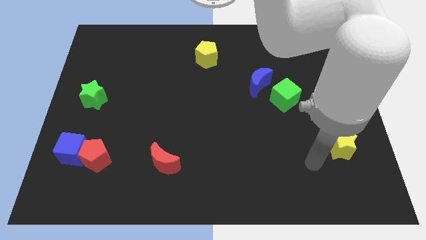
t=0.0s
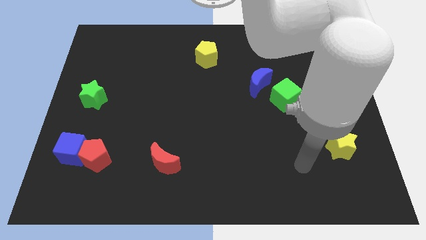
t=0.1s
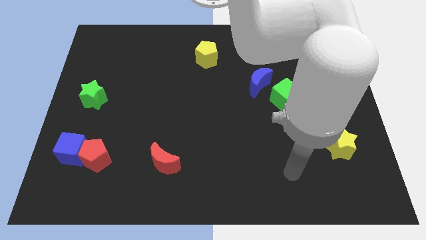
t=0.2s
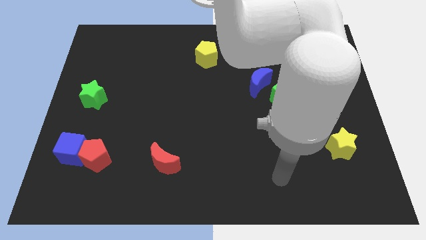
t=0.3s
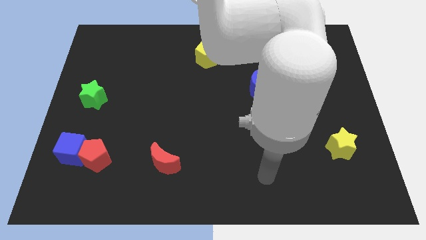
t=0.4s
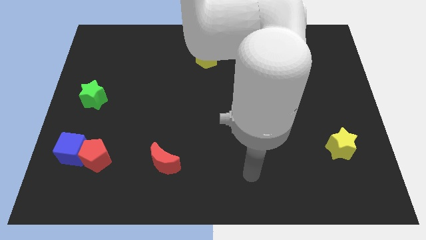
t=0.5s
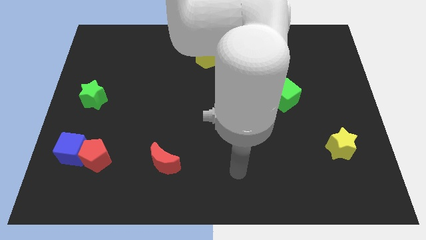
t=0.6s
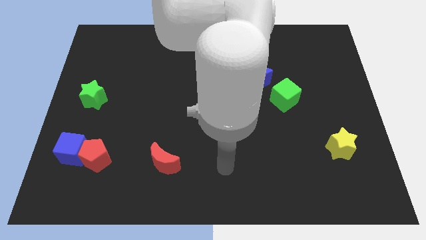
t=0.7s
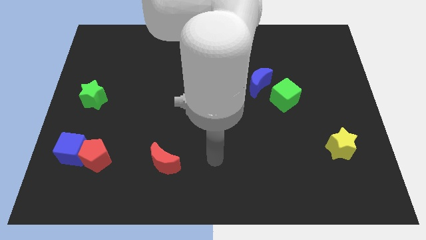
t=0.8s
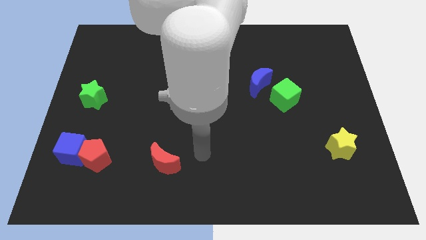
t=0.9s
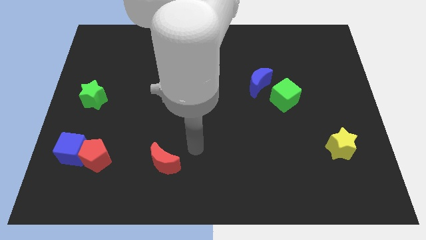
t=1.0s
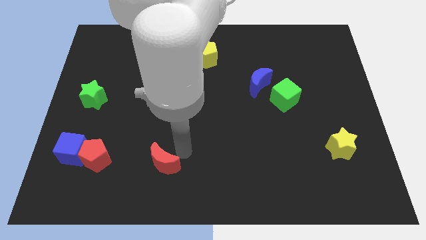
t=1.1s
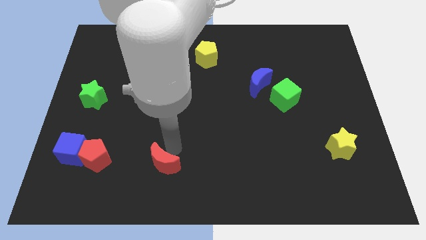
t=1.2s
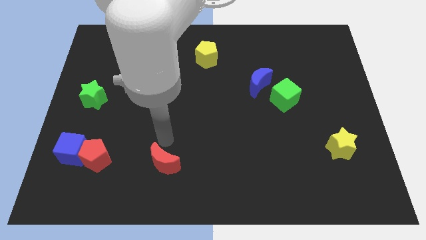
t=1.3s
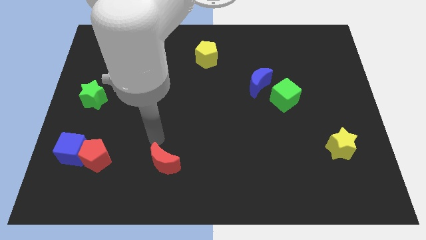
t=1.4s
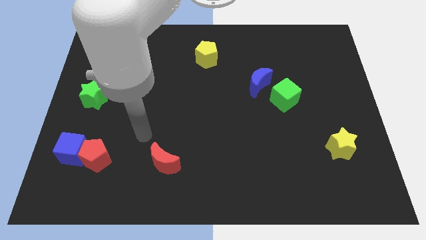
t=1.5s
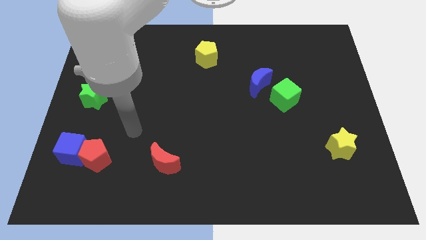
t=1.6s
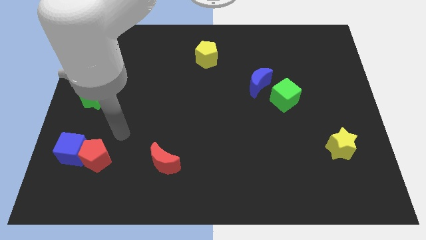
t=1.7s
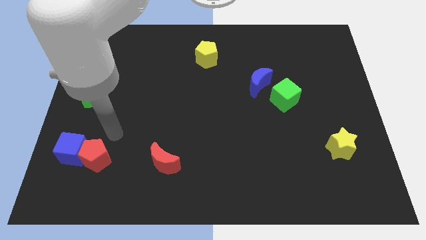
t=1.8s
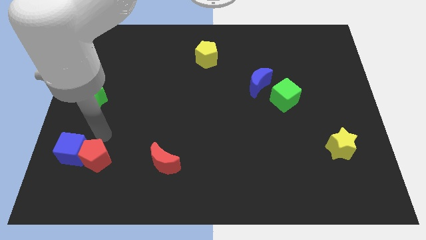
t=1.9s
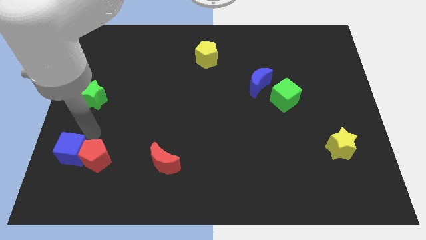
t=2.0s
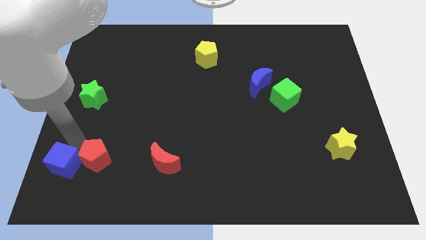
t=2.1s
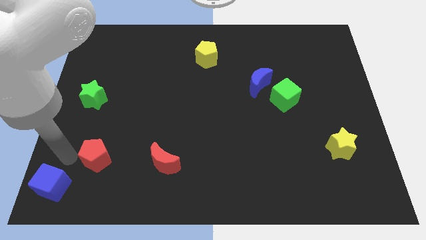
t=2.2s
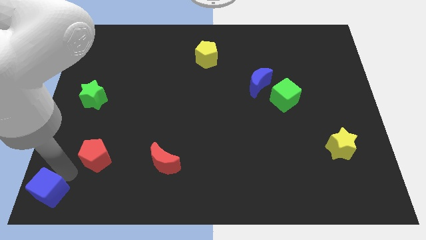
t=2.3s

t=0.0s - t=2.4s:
pull the red pentagon apart from the blue cube

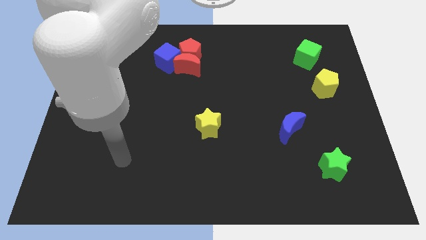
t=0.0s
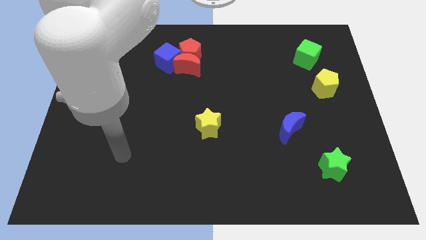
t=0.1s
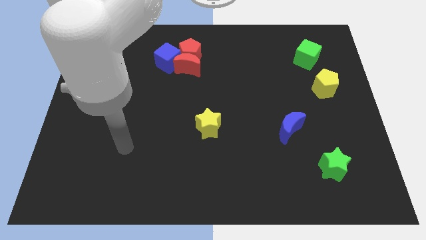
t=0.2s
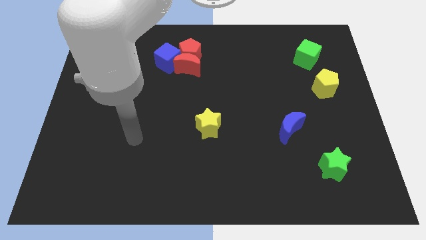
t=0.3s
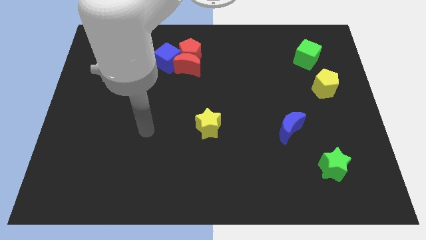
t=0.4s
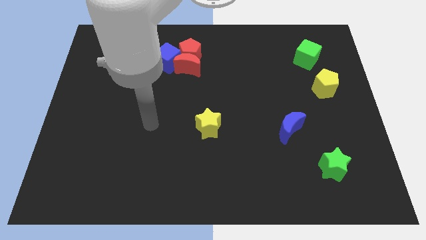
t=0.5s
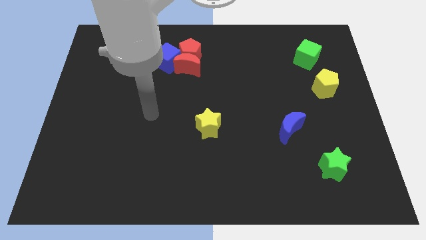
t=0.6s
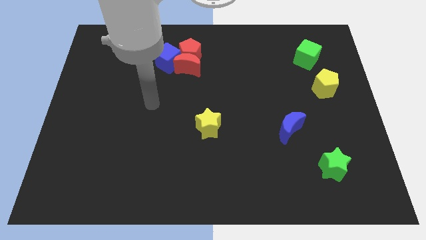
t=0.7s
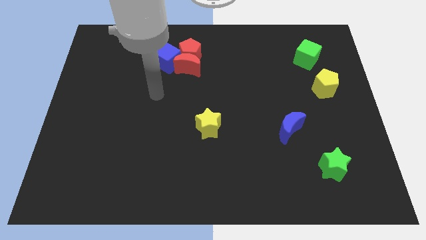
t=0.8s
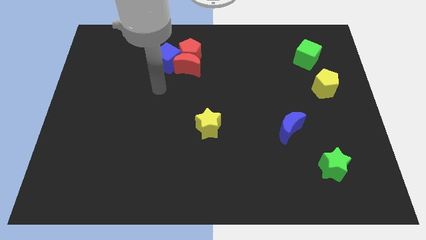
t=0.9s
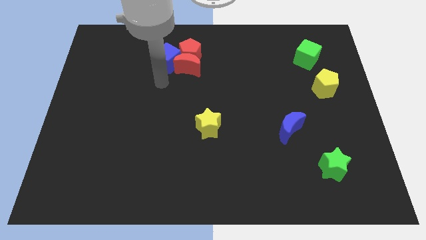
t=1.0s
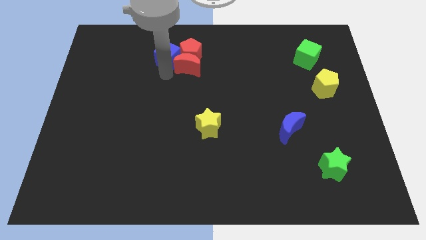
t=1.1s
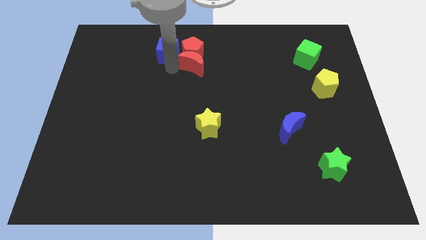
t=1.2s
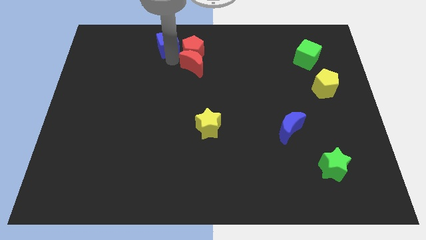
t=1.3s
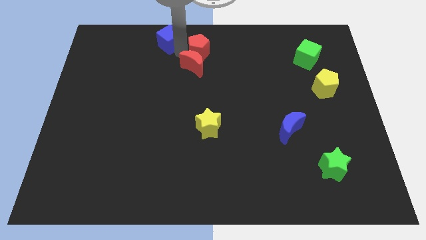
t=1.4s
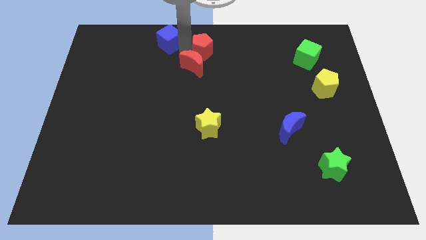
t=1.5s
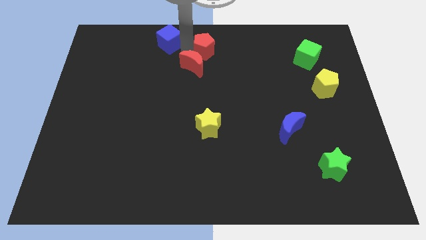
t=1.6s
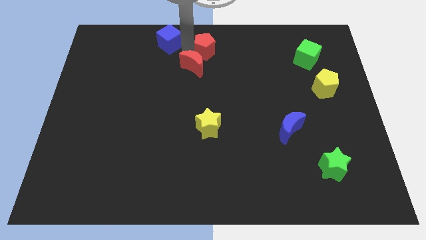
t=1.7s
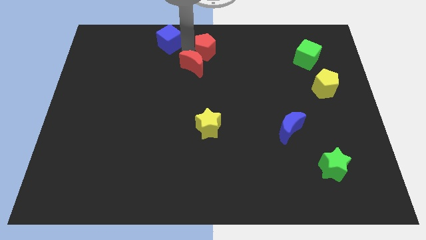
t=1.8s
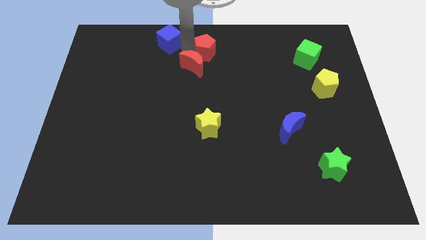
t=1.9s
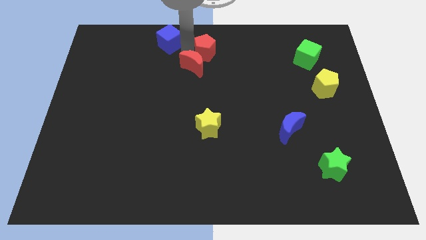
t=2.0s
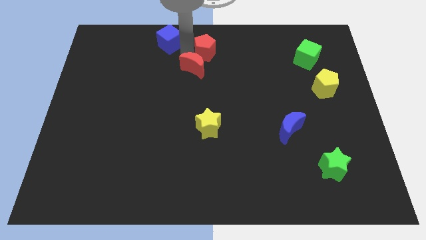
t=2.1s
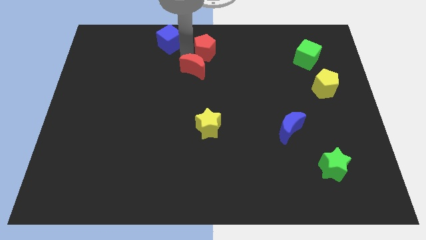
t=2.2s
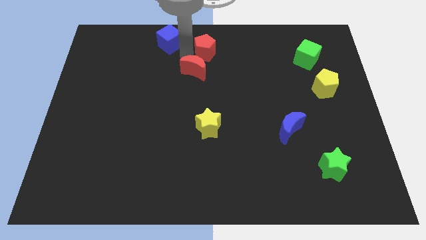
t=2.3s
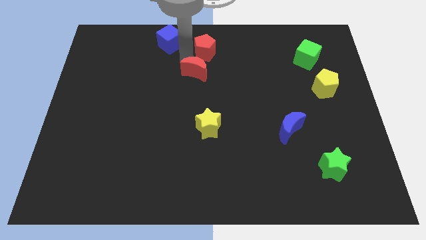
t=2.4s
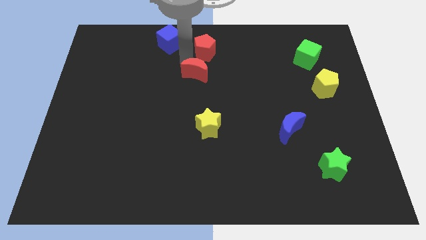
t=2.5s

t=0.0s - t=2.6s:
separate the red moon from the red pentagon and blue cube

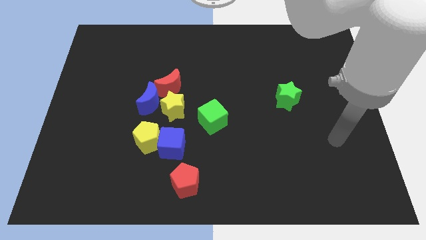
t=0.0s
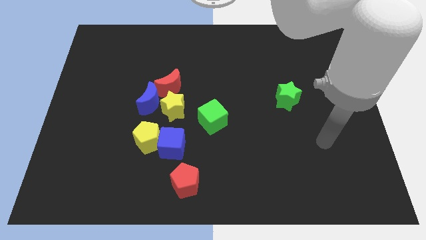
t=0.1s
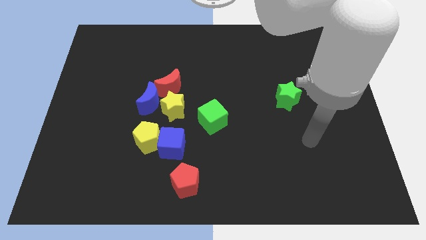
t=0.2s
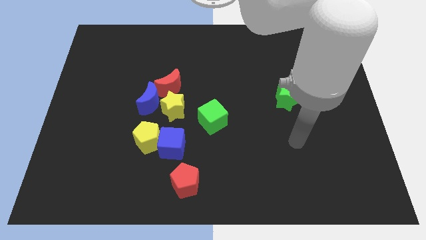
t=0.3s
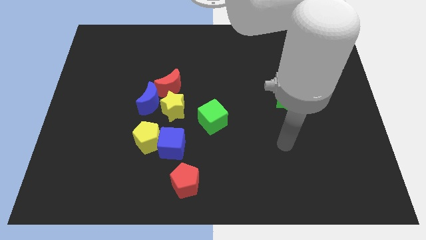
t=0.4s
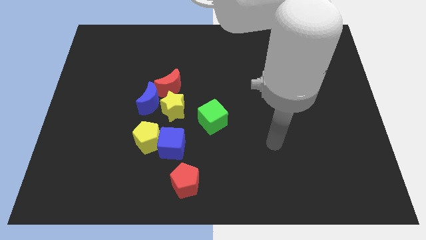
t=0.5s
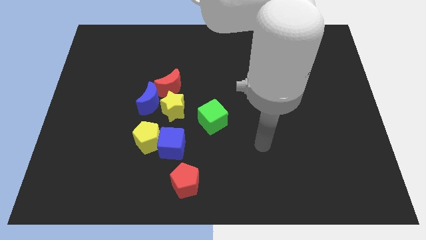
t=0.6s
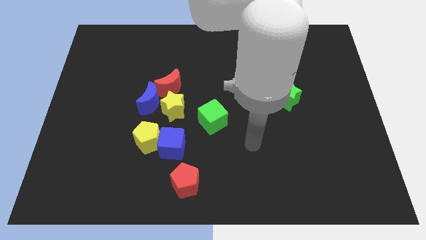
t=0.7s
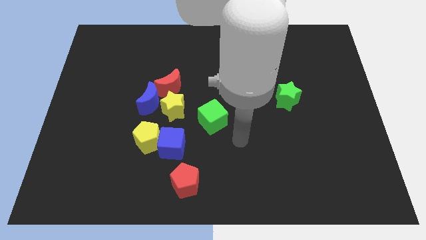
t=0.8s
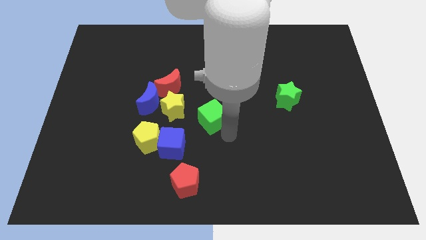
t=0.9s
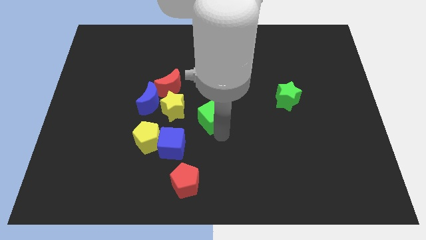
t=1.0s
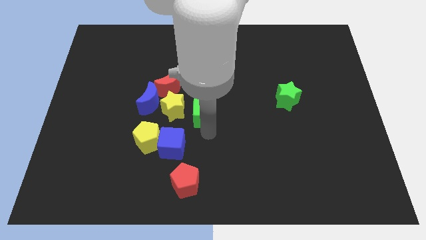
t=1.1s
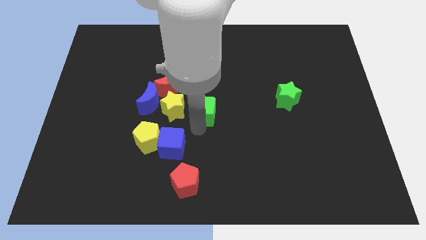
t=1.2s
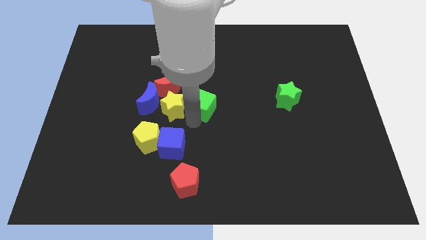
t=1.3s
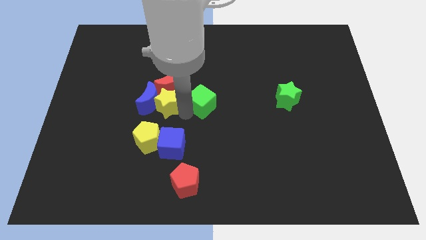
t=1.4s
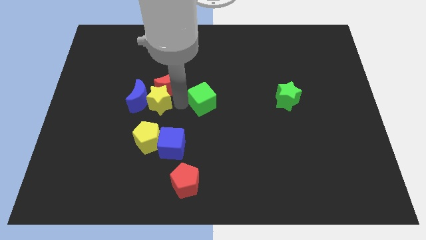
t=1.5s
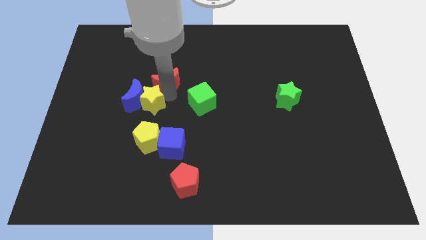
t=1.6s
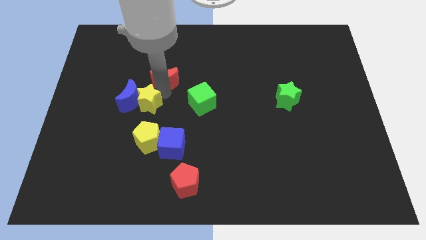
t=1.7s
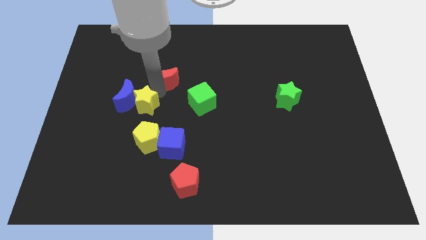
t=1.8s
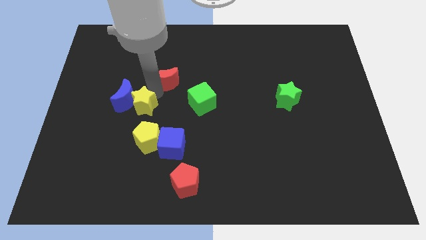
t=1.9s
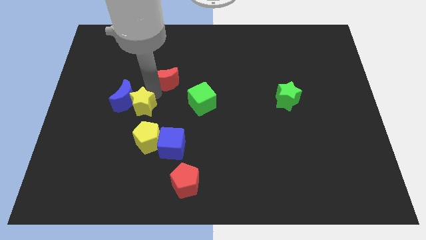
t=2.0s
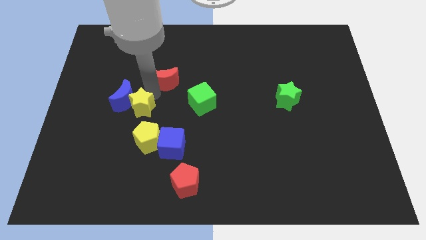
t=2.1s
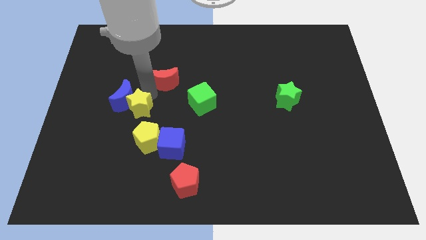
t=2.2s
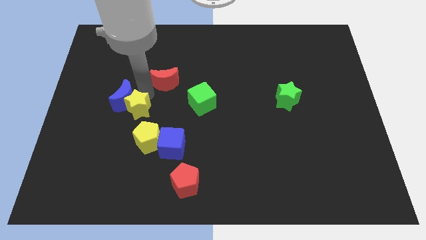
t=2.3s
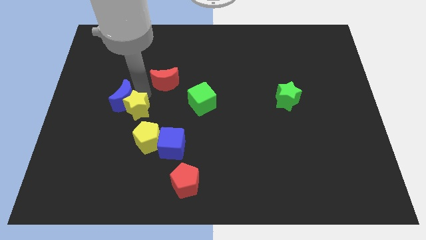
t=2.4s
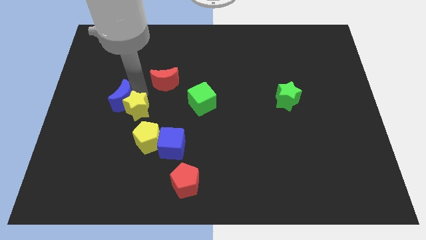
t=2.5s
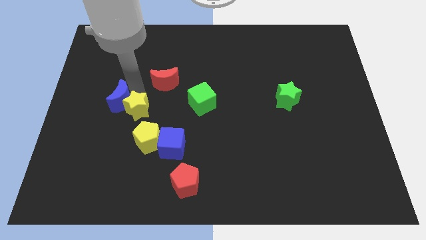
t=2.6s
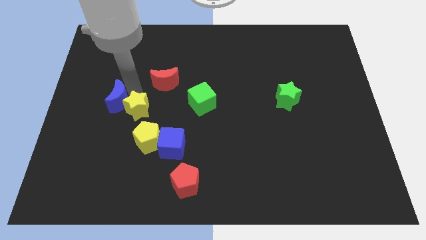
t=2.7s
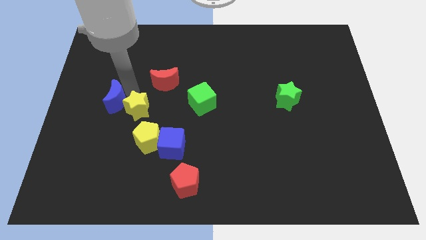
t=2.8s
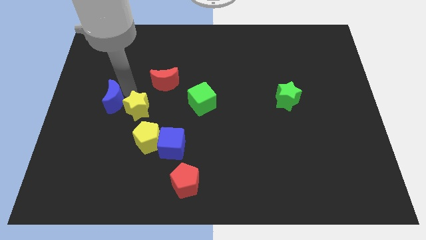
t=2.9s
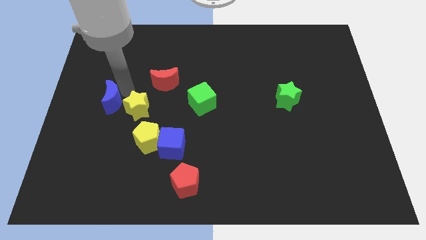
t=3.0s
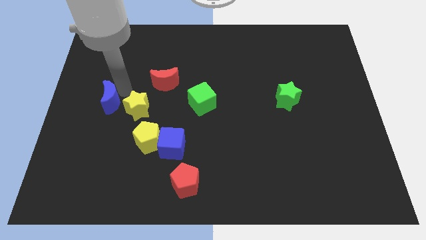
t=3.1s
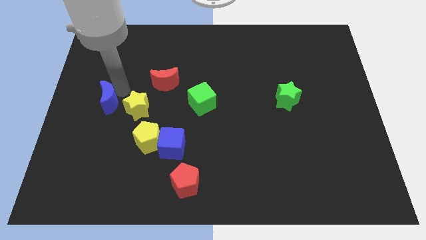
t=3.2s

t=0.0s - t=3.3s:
move the blue moon away from the yellow star and red moon

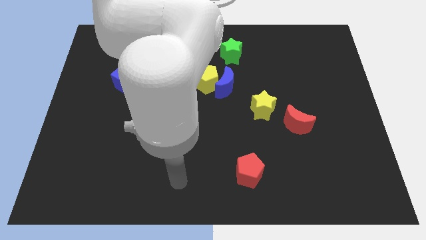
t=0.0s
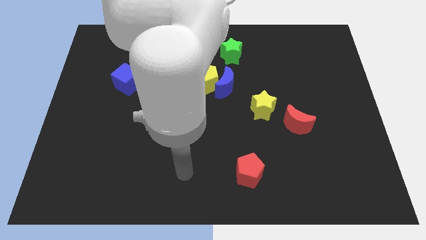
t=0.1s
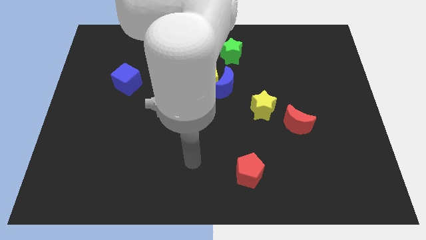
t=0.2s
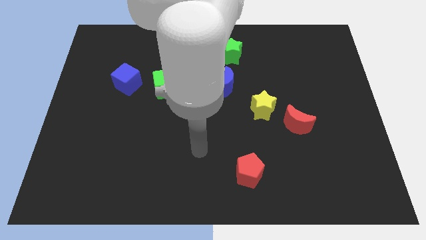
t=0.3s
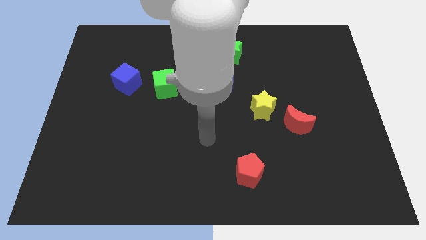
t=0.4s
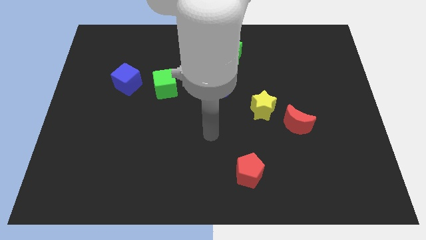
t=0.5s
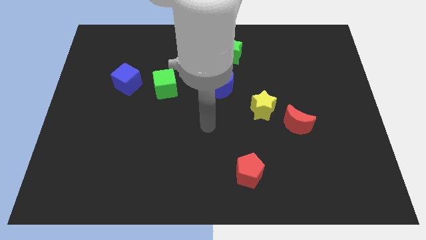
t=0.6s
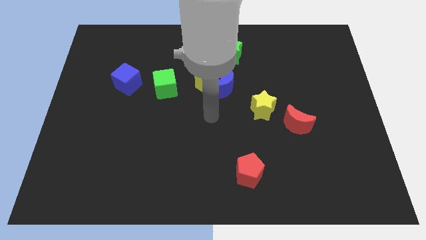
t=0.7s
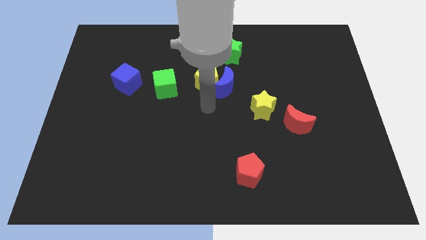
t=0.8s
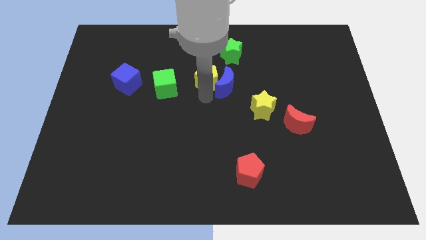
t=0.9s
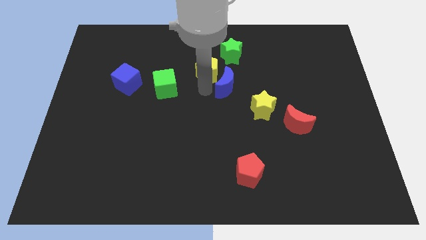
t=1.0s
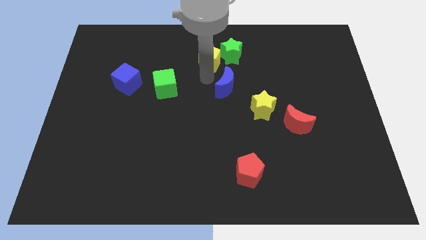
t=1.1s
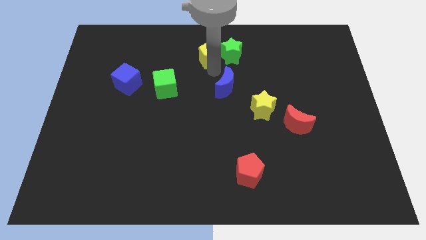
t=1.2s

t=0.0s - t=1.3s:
pull the blue moon apart from the yellow pentagon

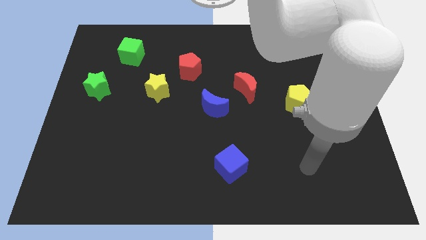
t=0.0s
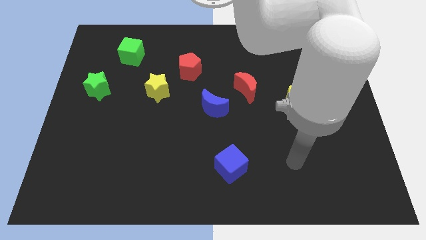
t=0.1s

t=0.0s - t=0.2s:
move the red moon away from the blue moon
